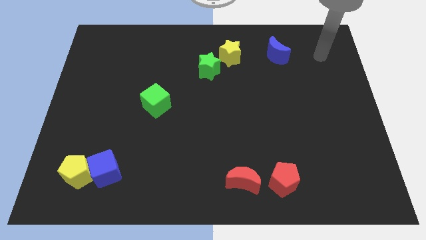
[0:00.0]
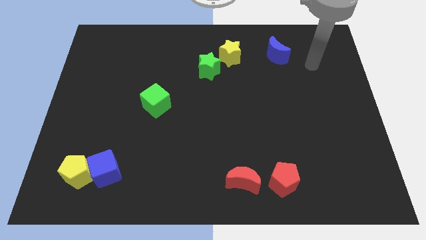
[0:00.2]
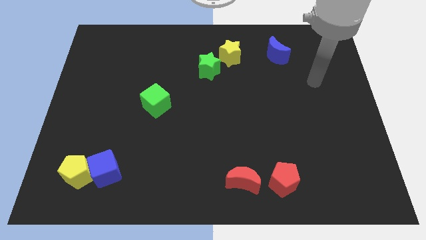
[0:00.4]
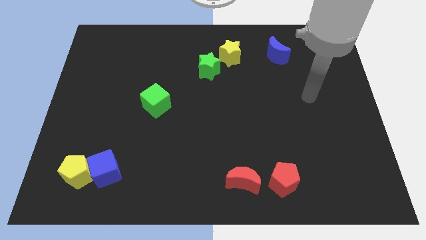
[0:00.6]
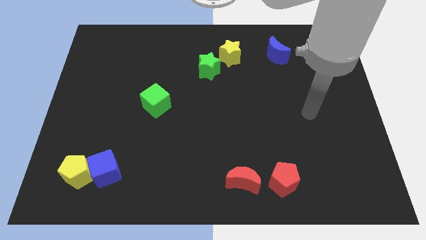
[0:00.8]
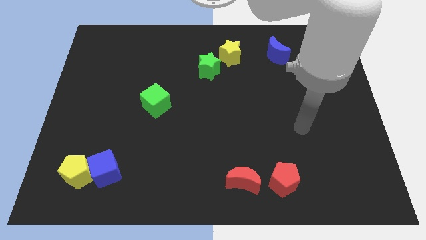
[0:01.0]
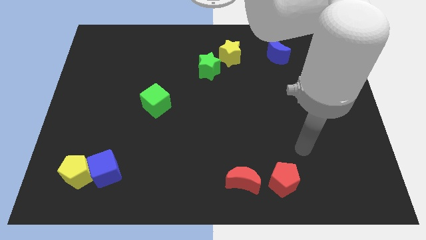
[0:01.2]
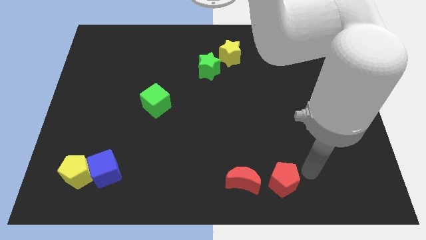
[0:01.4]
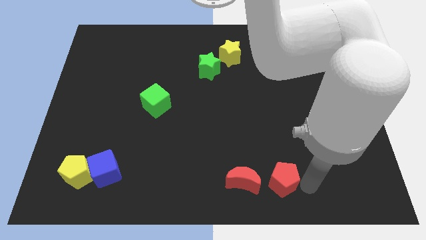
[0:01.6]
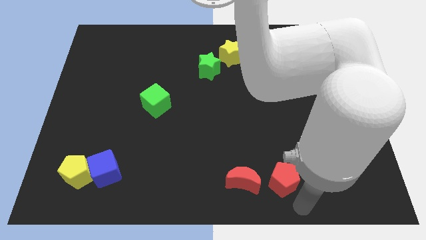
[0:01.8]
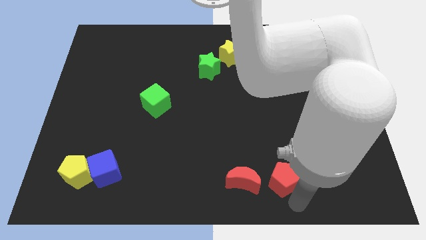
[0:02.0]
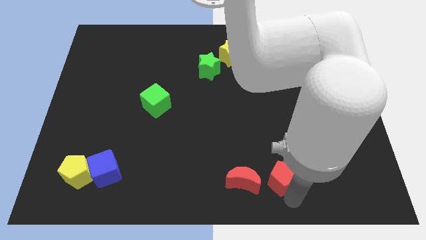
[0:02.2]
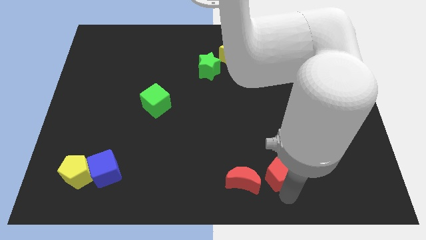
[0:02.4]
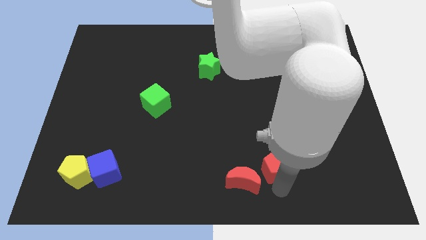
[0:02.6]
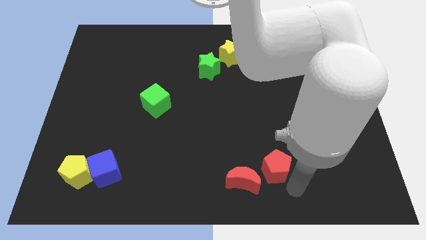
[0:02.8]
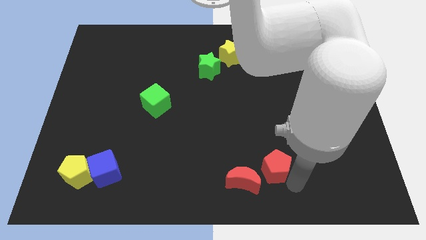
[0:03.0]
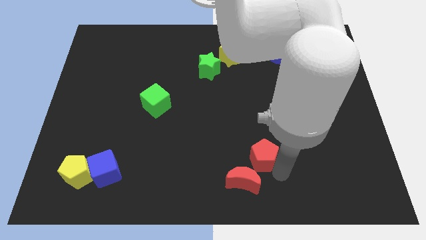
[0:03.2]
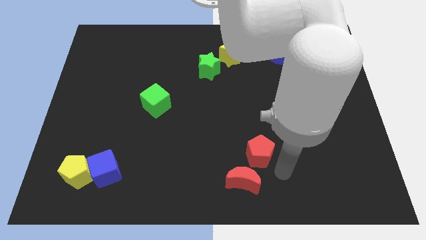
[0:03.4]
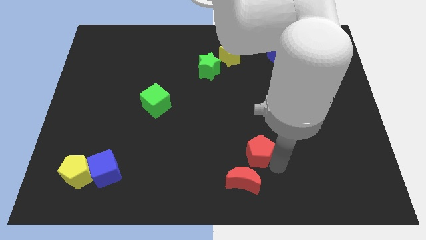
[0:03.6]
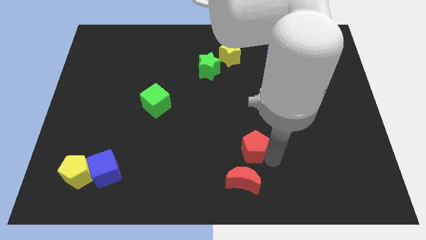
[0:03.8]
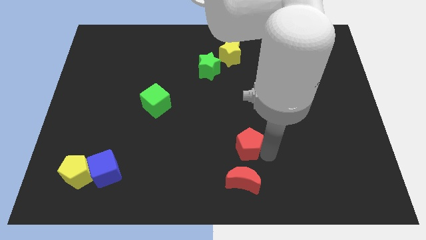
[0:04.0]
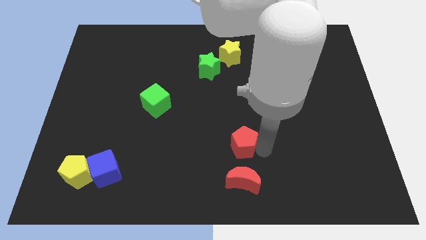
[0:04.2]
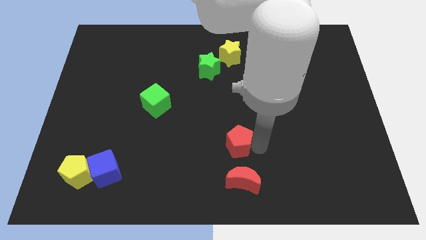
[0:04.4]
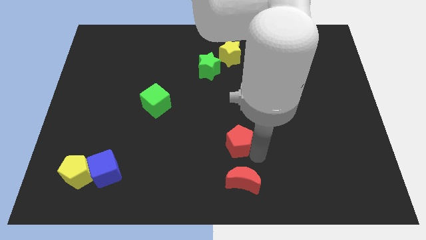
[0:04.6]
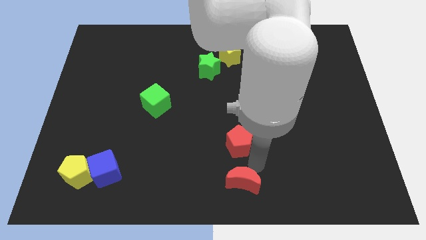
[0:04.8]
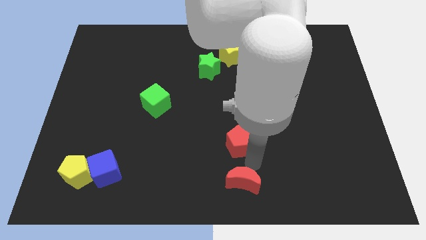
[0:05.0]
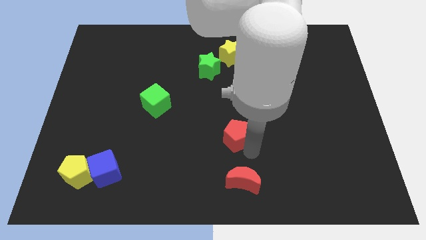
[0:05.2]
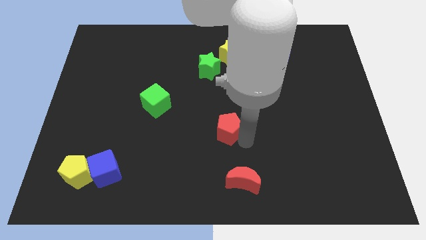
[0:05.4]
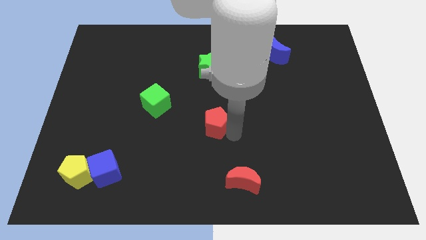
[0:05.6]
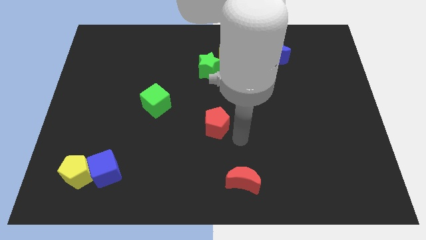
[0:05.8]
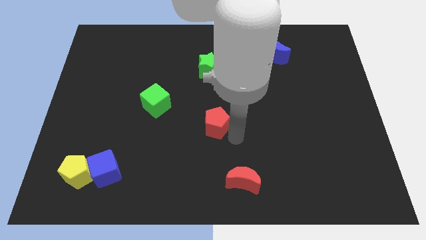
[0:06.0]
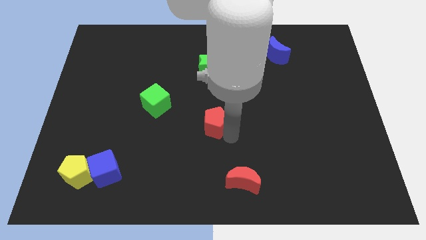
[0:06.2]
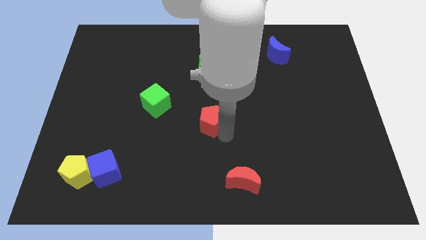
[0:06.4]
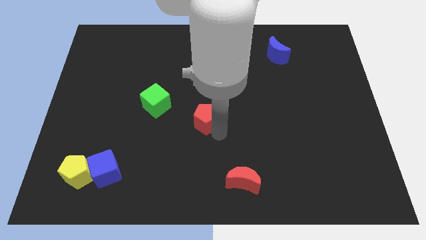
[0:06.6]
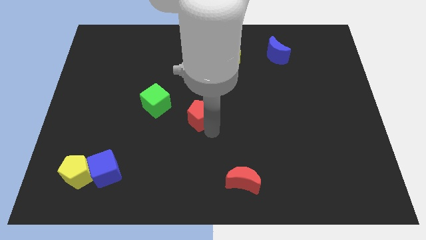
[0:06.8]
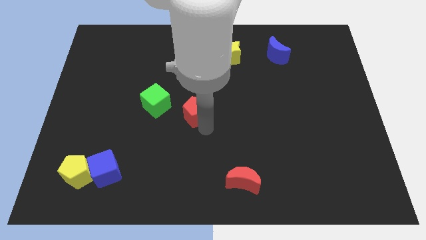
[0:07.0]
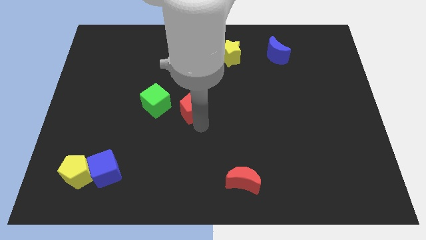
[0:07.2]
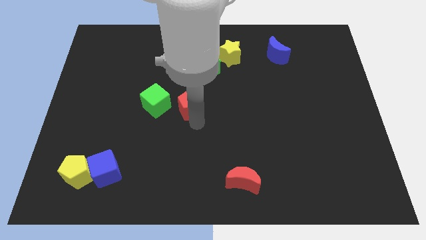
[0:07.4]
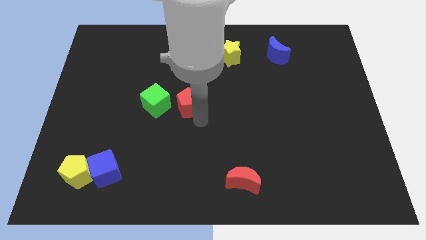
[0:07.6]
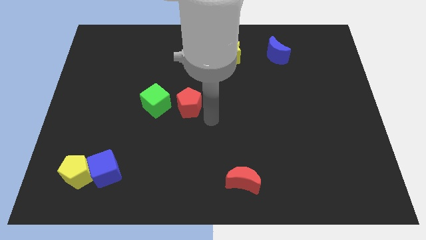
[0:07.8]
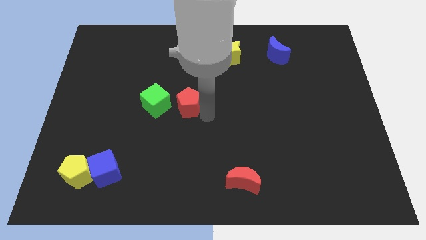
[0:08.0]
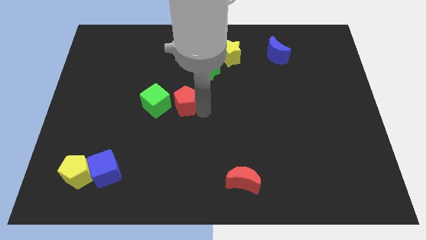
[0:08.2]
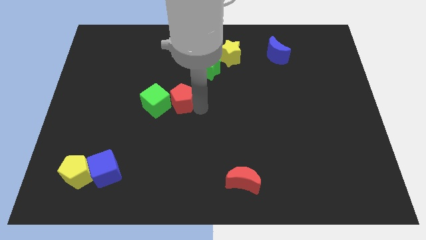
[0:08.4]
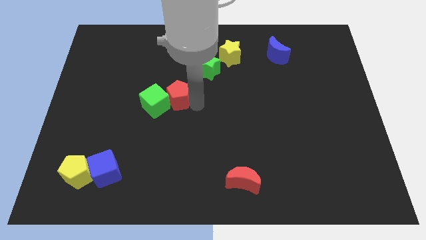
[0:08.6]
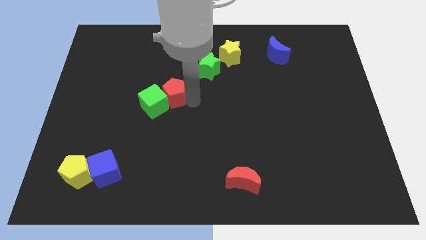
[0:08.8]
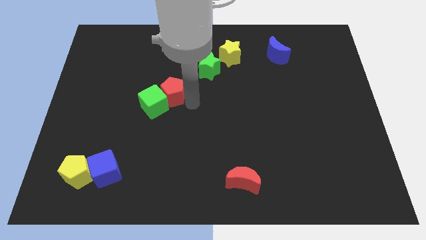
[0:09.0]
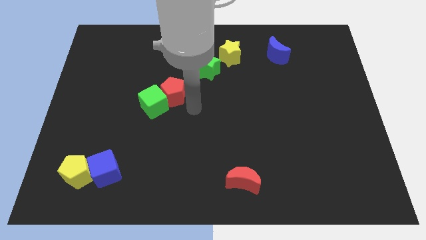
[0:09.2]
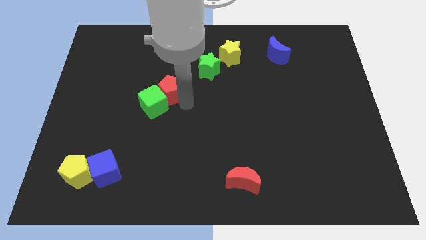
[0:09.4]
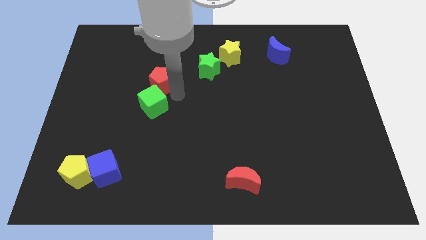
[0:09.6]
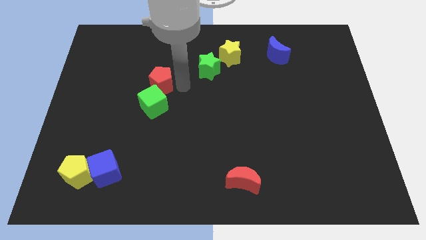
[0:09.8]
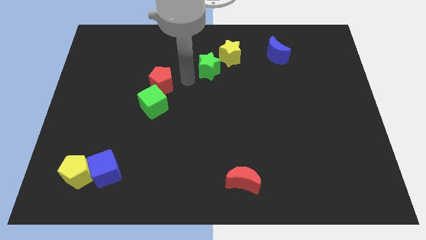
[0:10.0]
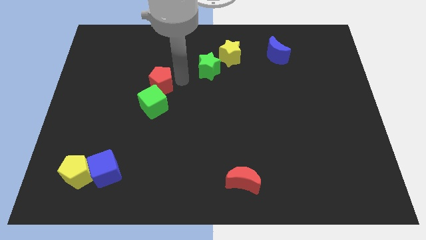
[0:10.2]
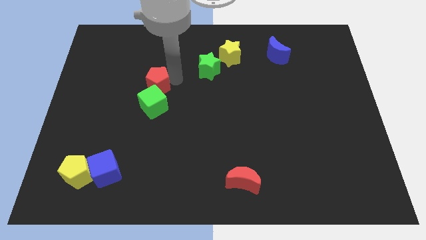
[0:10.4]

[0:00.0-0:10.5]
move the red pentagon to the top left side of the green cube

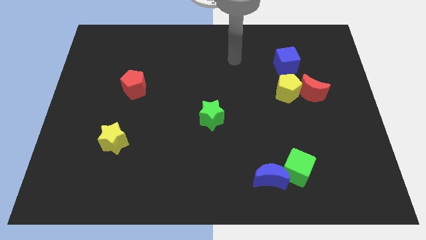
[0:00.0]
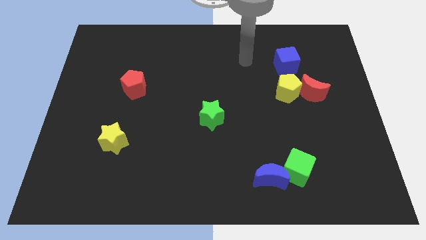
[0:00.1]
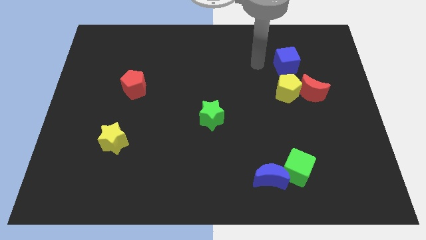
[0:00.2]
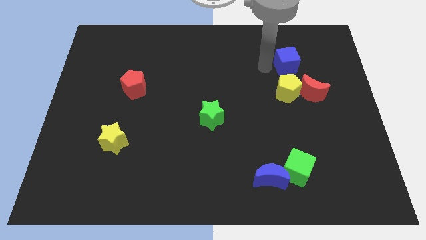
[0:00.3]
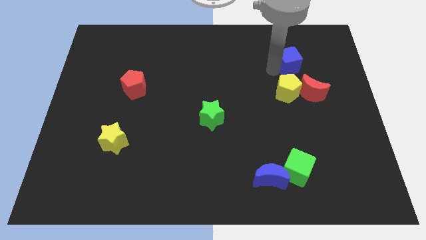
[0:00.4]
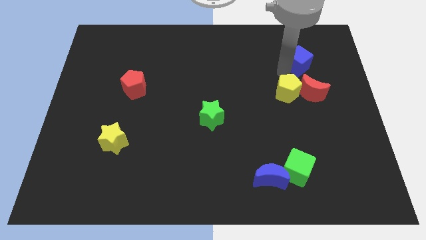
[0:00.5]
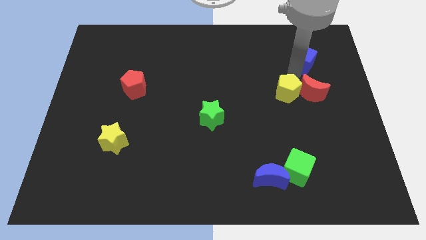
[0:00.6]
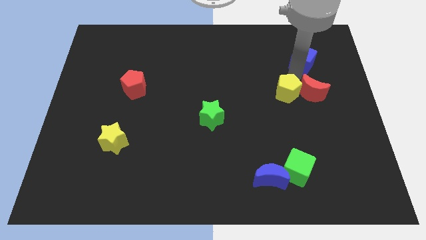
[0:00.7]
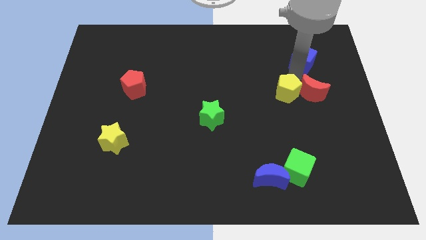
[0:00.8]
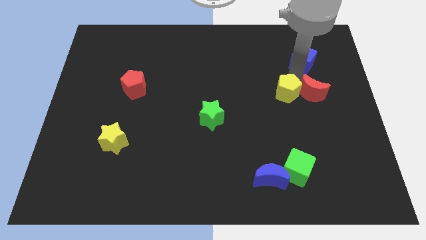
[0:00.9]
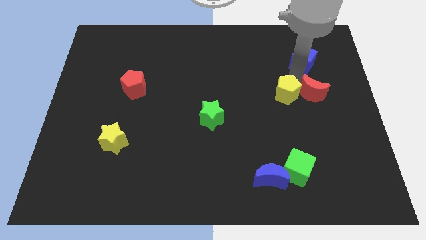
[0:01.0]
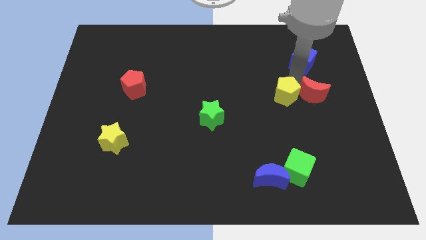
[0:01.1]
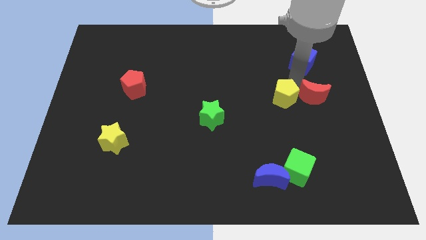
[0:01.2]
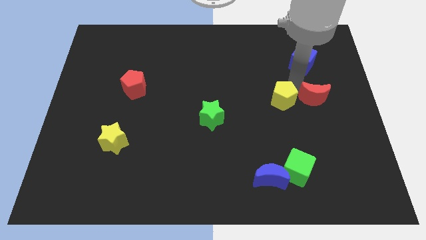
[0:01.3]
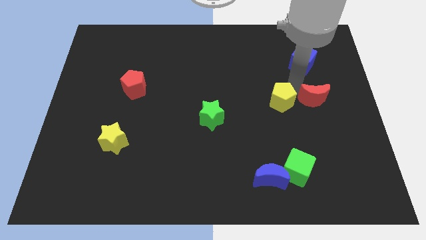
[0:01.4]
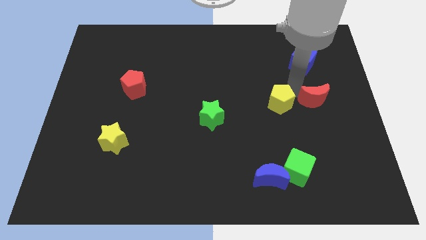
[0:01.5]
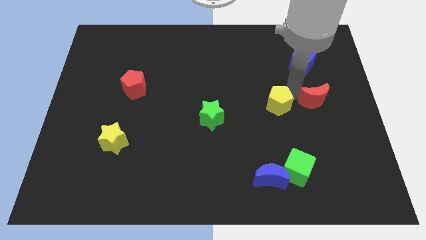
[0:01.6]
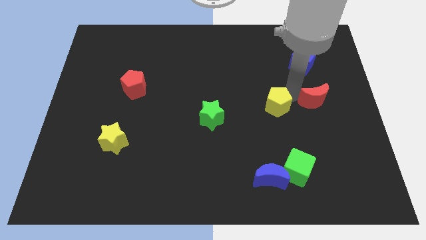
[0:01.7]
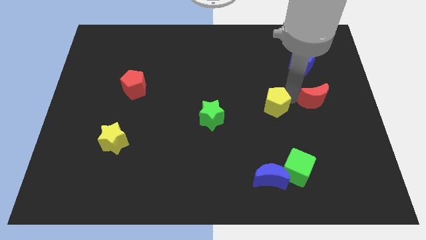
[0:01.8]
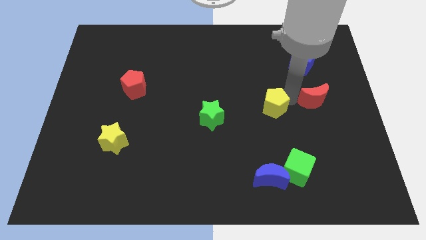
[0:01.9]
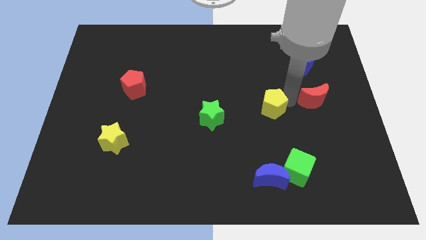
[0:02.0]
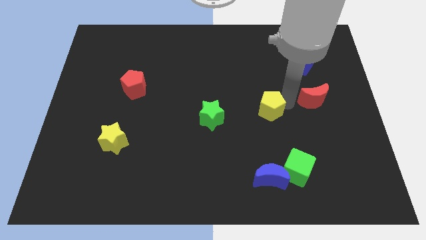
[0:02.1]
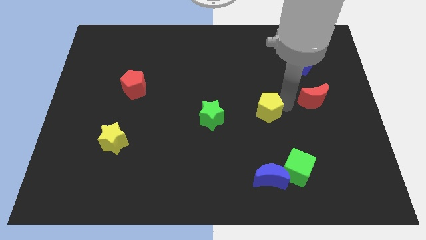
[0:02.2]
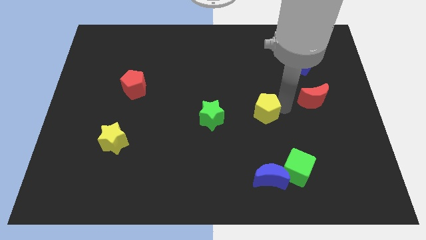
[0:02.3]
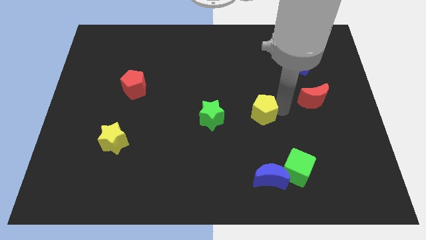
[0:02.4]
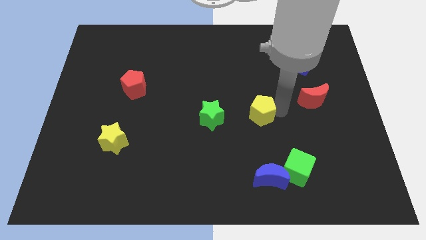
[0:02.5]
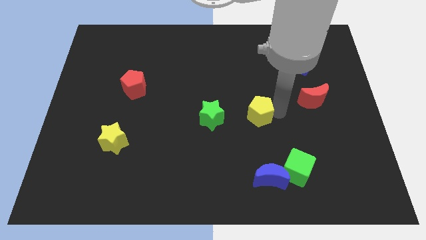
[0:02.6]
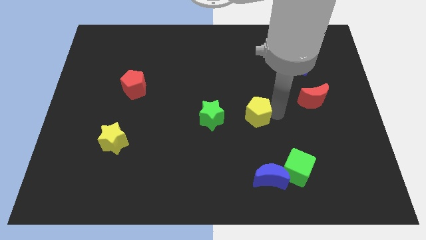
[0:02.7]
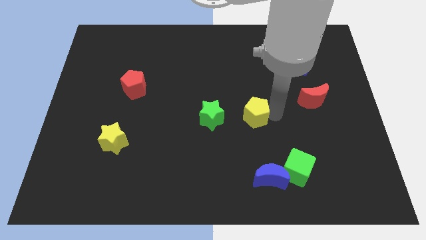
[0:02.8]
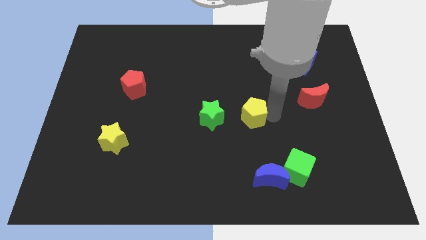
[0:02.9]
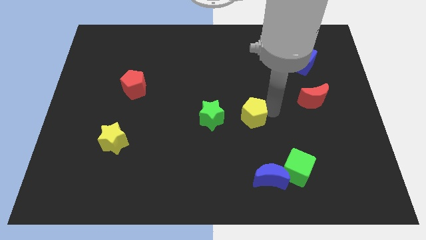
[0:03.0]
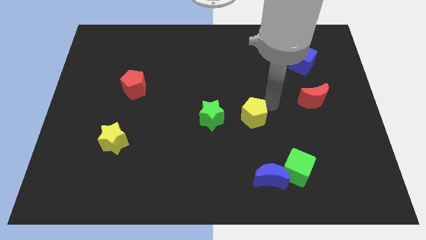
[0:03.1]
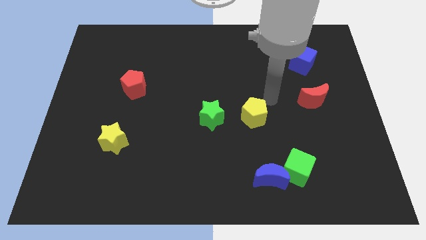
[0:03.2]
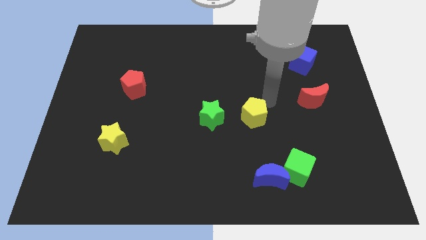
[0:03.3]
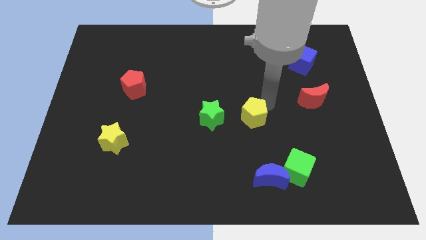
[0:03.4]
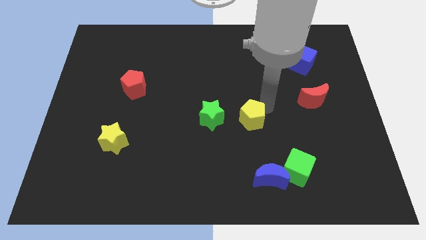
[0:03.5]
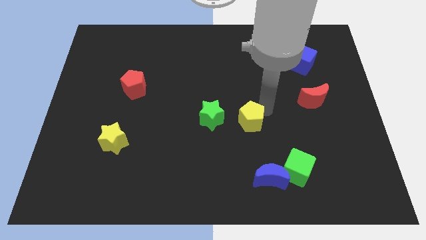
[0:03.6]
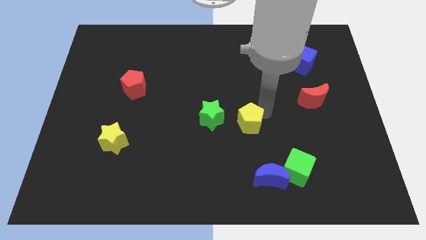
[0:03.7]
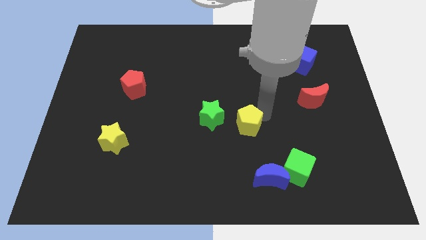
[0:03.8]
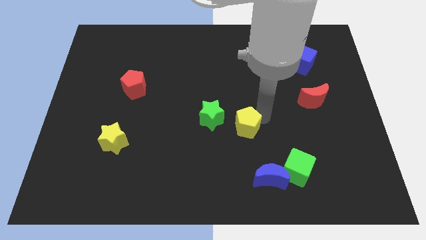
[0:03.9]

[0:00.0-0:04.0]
move the yellow pentagon to the bottom right side of the green star
